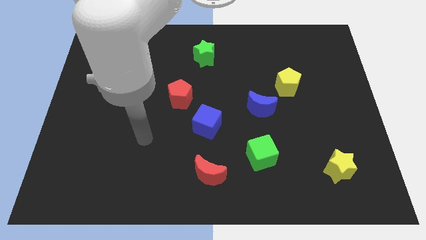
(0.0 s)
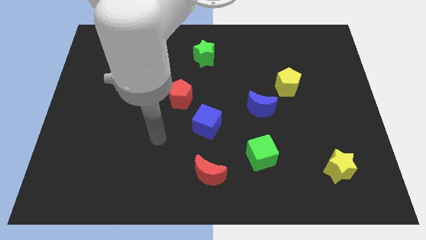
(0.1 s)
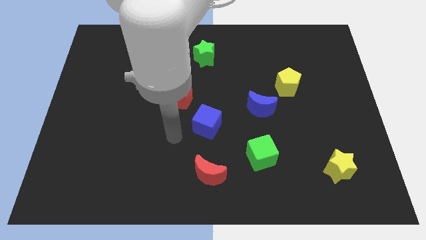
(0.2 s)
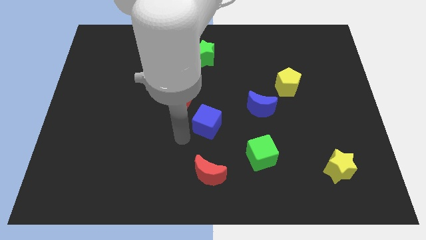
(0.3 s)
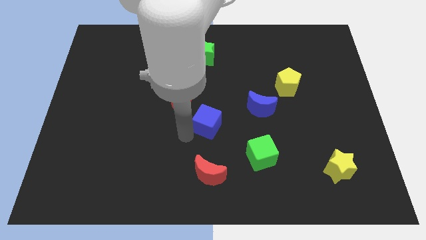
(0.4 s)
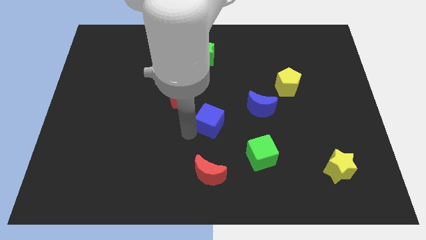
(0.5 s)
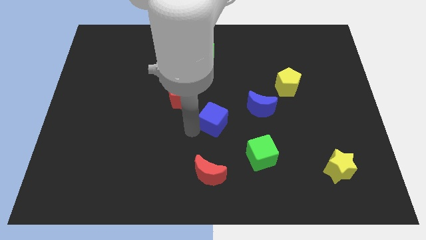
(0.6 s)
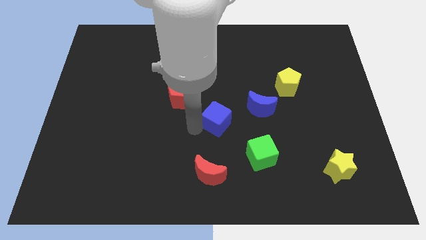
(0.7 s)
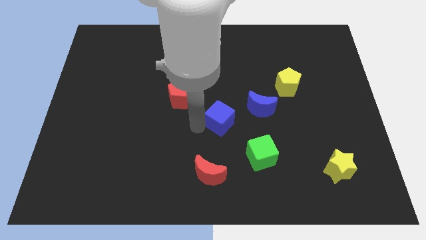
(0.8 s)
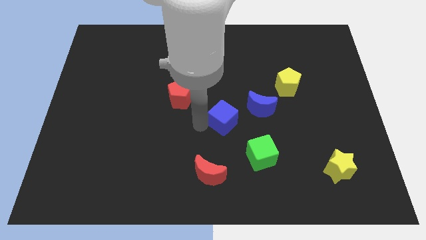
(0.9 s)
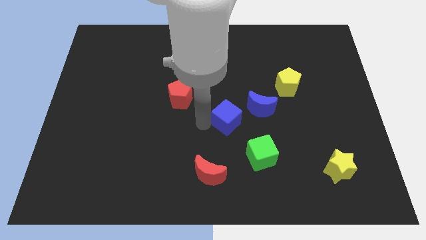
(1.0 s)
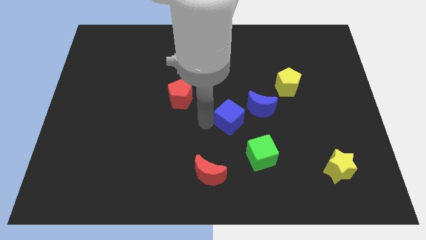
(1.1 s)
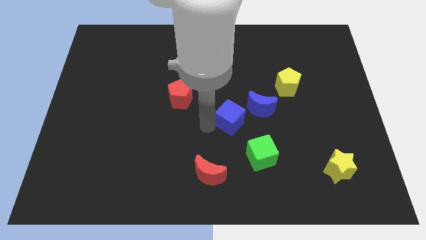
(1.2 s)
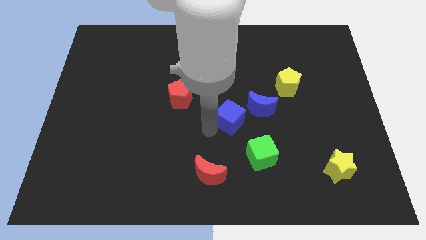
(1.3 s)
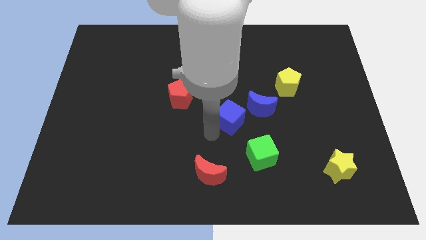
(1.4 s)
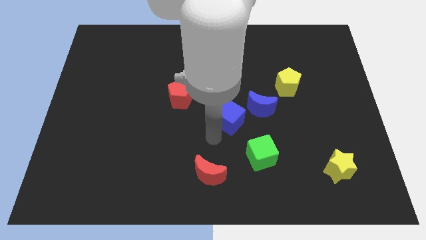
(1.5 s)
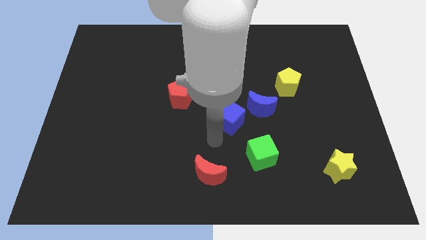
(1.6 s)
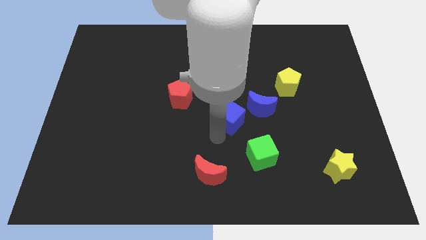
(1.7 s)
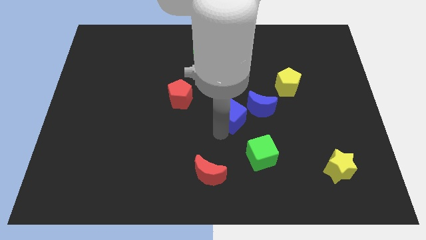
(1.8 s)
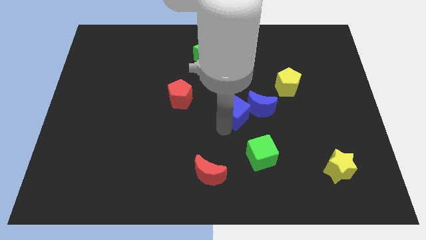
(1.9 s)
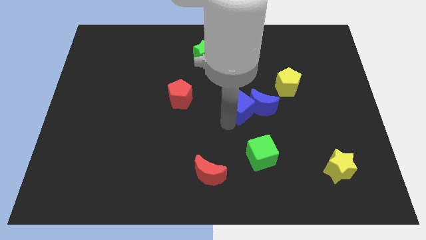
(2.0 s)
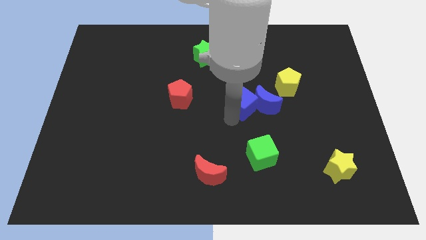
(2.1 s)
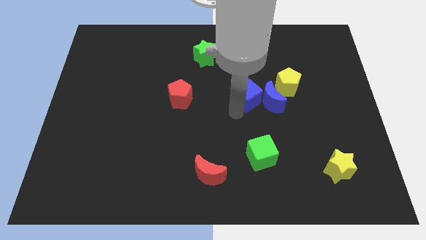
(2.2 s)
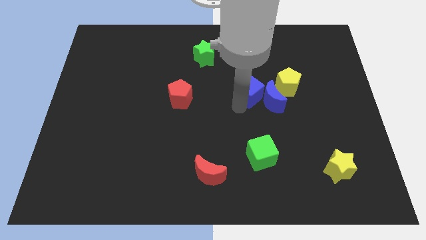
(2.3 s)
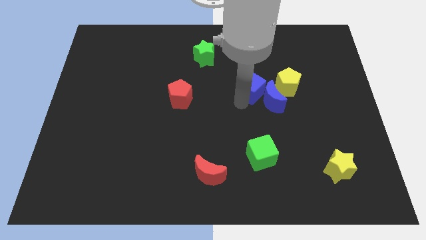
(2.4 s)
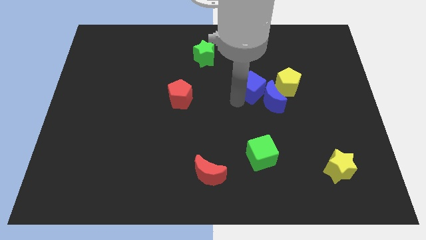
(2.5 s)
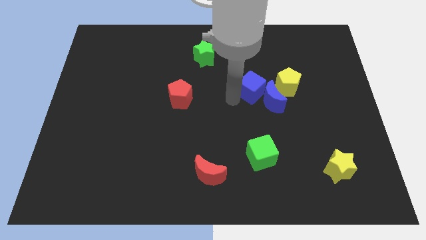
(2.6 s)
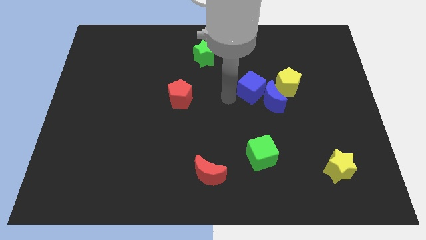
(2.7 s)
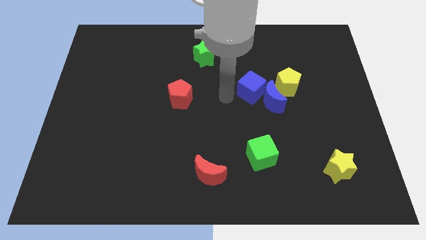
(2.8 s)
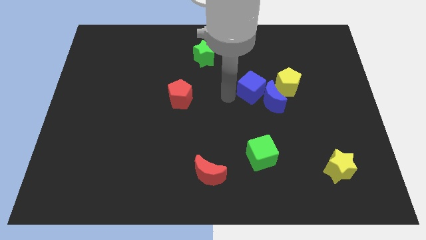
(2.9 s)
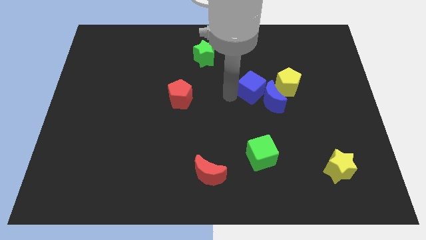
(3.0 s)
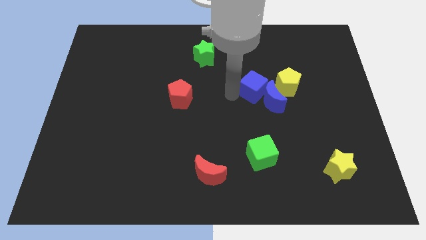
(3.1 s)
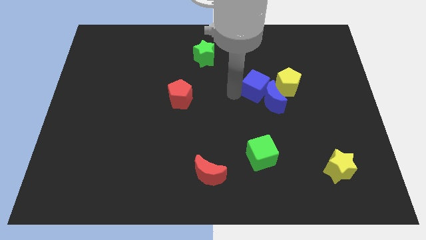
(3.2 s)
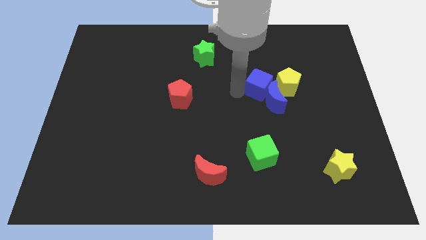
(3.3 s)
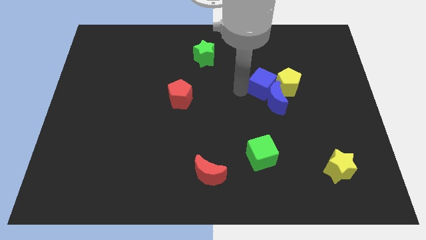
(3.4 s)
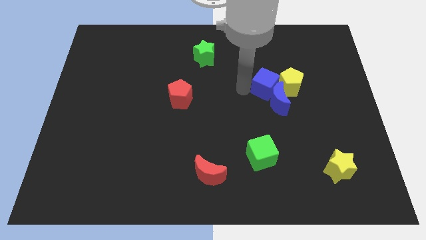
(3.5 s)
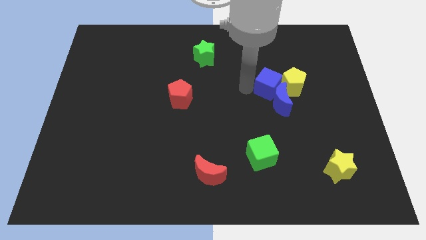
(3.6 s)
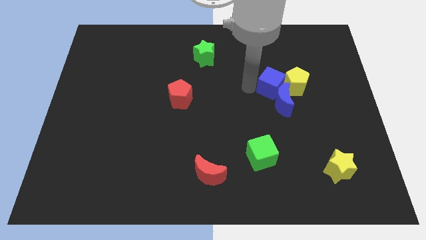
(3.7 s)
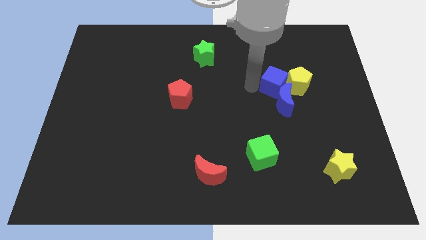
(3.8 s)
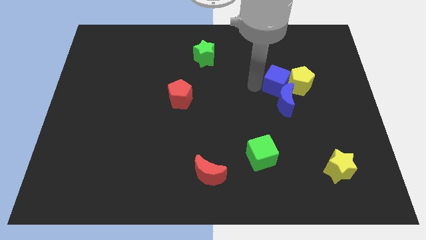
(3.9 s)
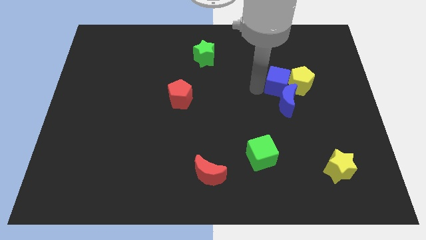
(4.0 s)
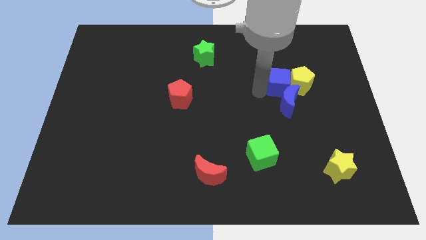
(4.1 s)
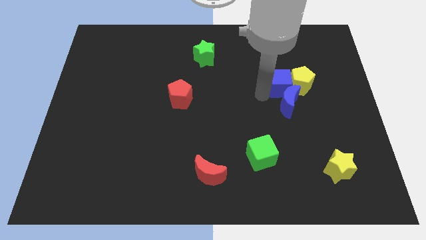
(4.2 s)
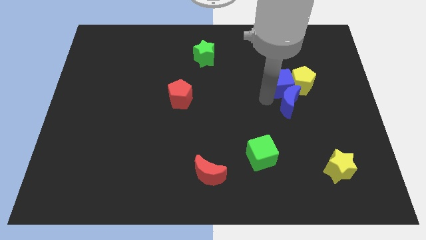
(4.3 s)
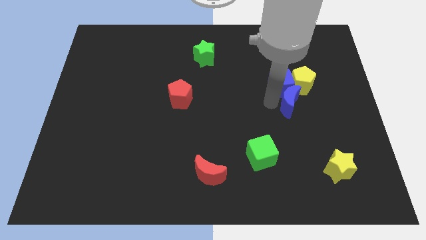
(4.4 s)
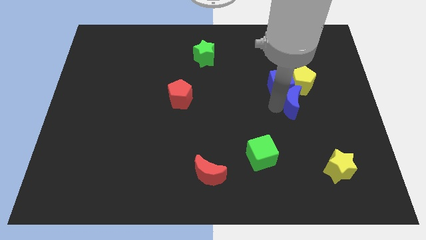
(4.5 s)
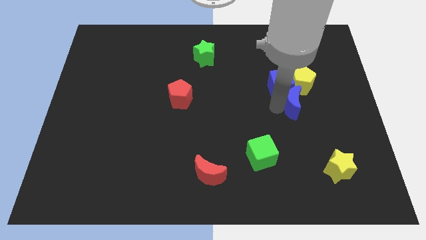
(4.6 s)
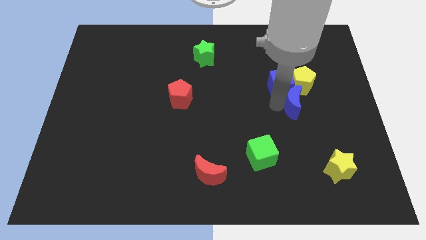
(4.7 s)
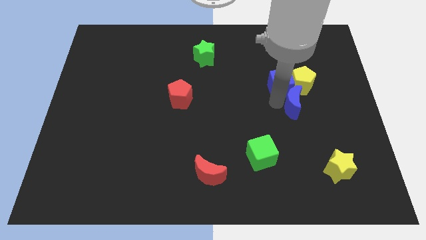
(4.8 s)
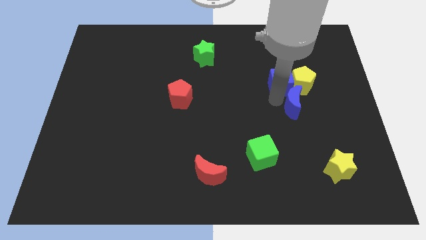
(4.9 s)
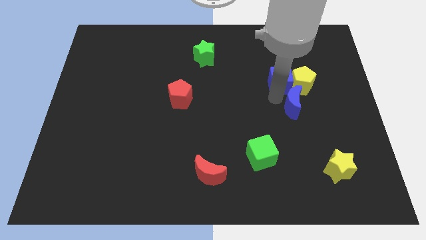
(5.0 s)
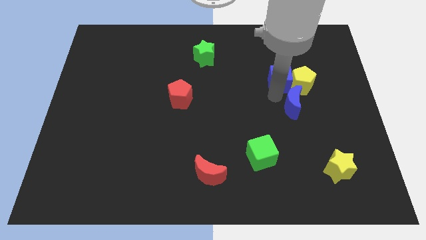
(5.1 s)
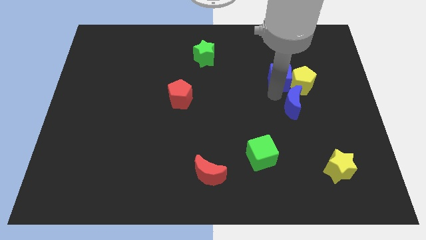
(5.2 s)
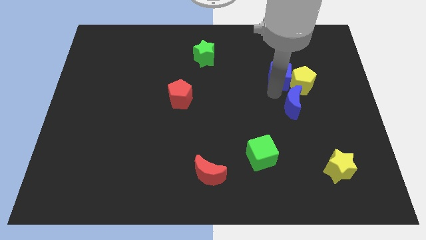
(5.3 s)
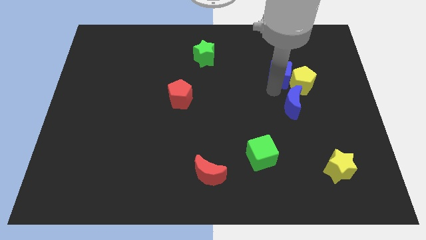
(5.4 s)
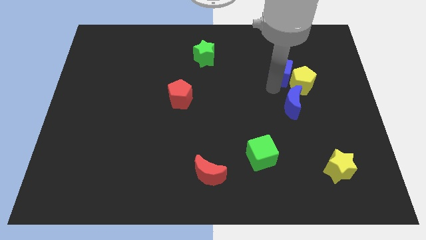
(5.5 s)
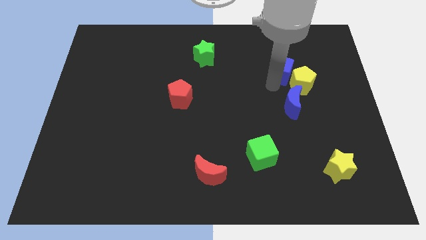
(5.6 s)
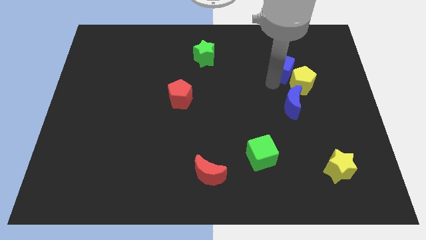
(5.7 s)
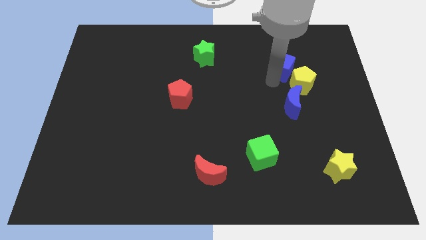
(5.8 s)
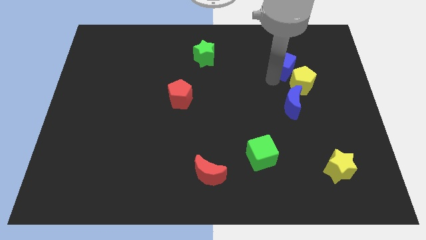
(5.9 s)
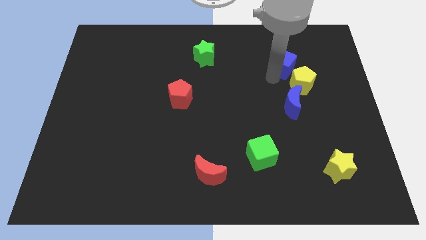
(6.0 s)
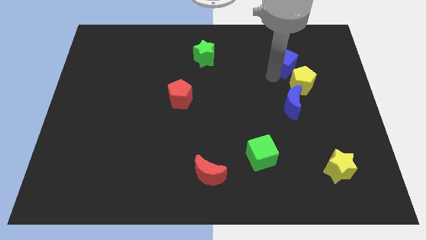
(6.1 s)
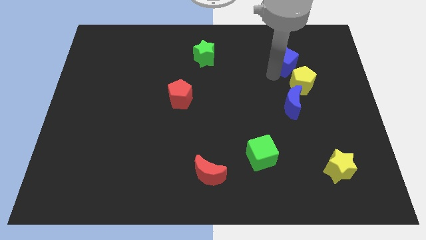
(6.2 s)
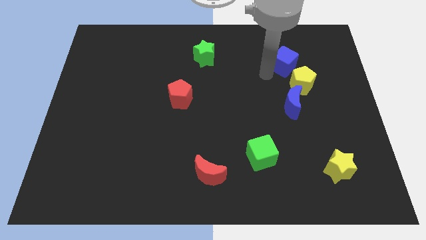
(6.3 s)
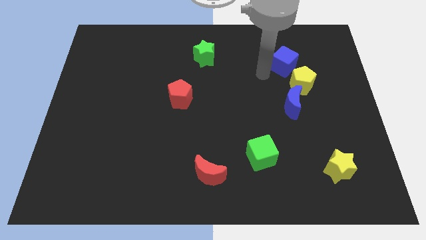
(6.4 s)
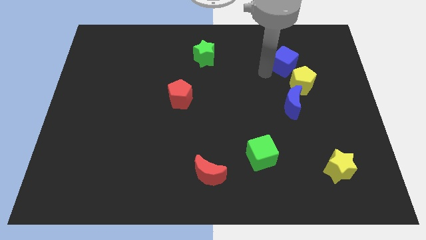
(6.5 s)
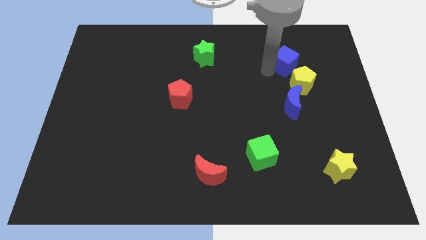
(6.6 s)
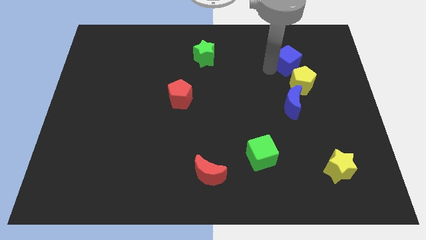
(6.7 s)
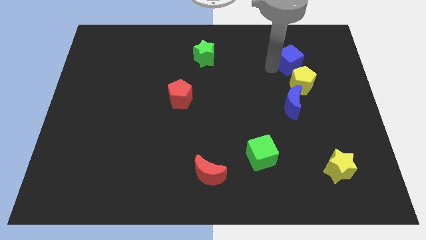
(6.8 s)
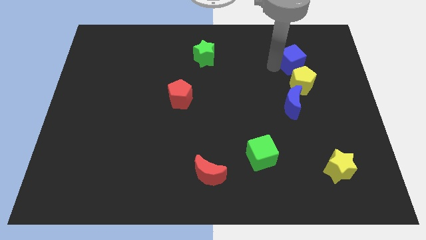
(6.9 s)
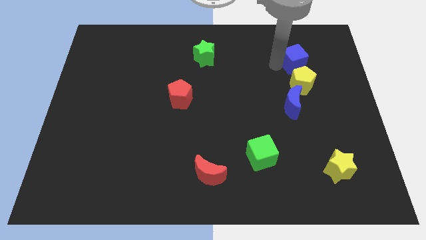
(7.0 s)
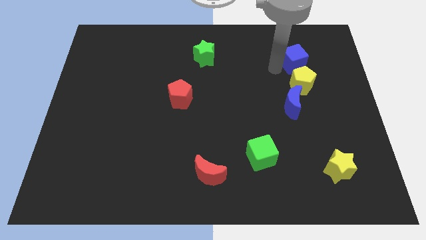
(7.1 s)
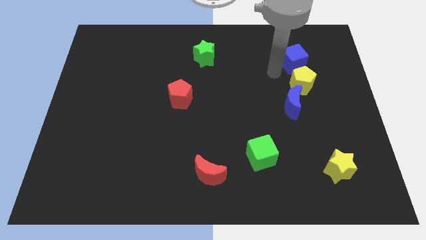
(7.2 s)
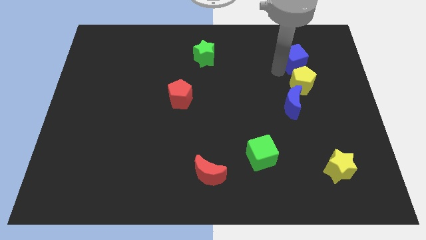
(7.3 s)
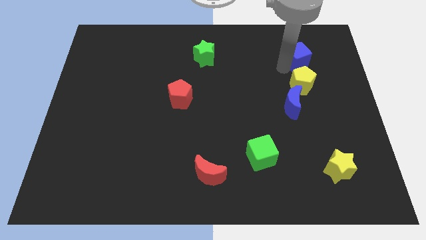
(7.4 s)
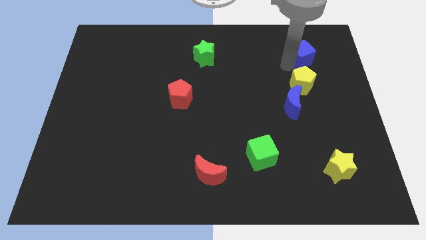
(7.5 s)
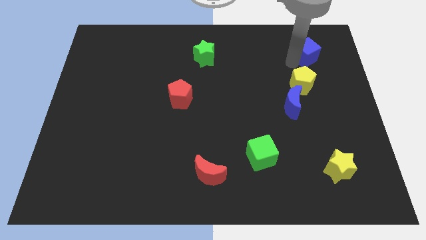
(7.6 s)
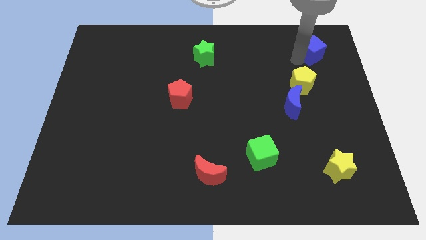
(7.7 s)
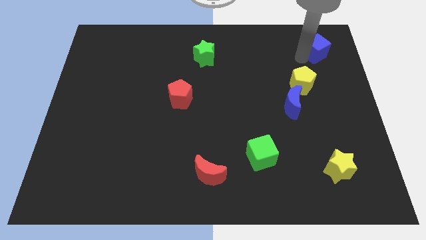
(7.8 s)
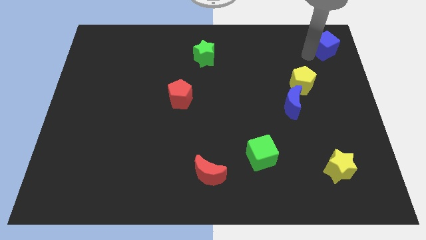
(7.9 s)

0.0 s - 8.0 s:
move the blue cube to the top right
